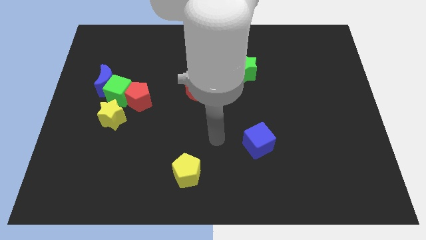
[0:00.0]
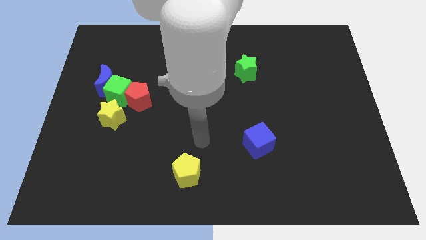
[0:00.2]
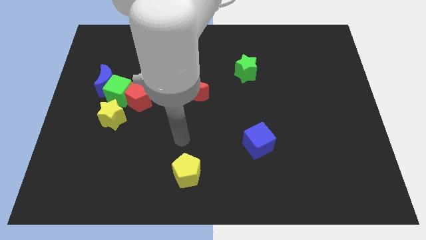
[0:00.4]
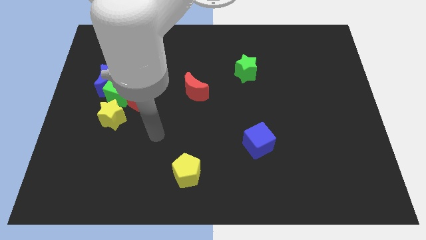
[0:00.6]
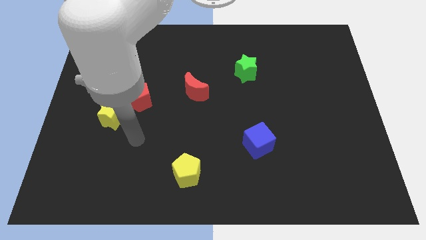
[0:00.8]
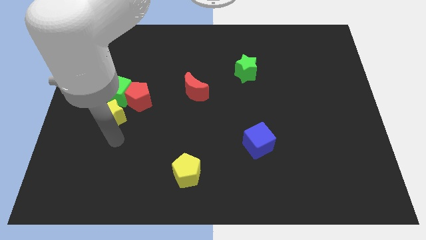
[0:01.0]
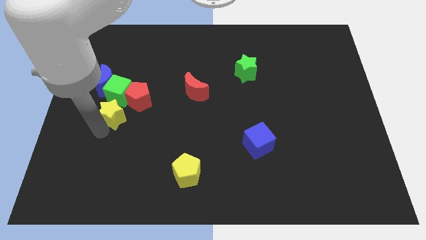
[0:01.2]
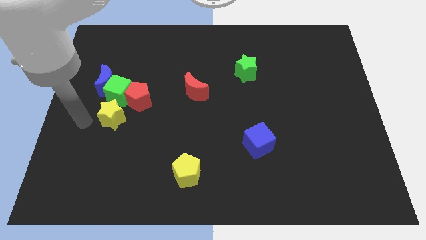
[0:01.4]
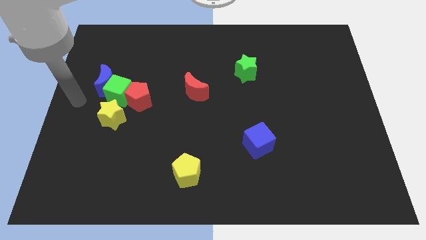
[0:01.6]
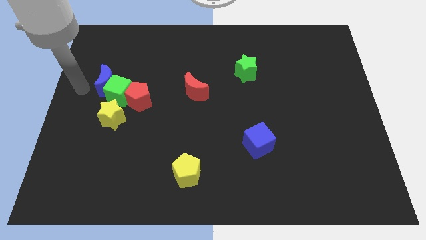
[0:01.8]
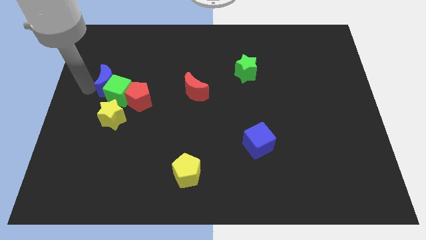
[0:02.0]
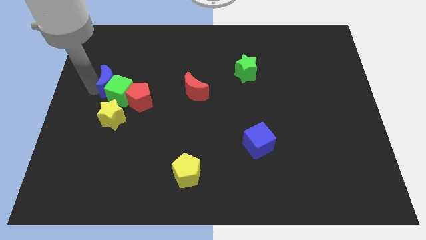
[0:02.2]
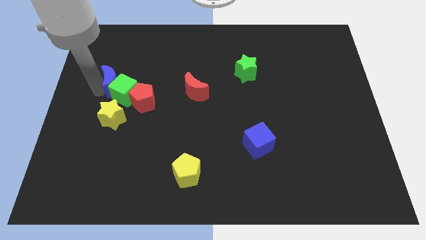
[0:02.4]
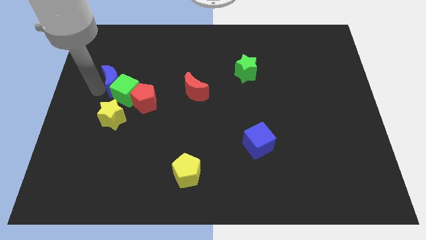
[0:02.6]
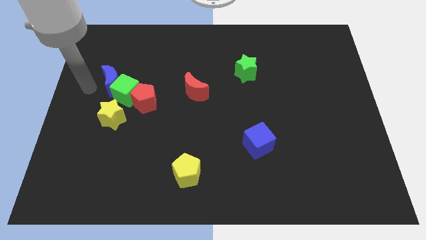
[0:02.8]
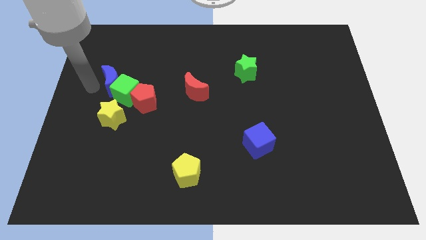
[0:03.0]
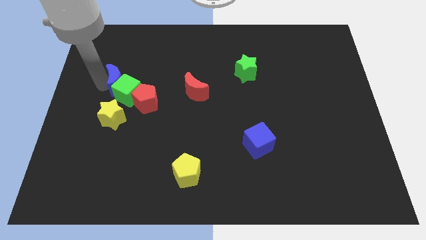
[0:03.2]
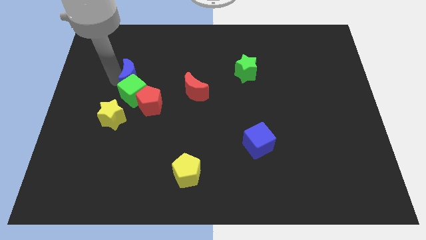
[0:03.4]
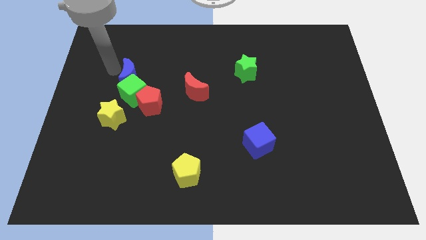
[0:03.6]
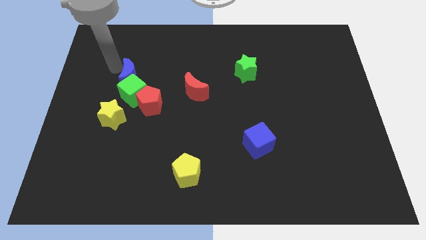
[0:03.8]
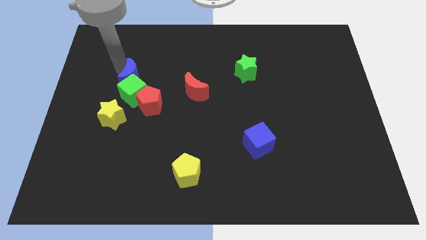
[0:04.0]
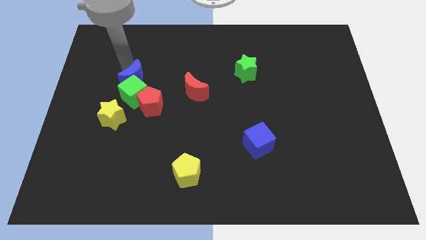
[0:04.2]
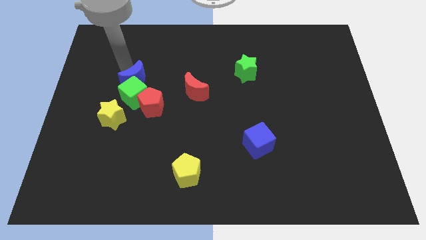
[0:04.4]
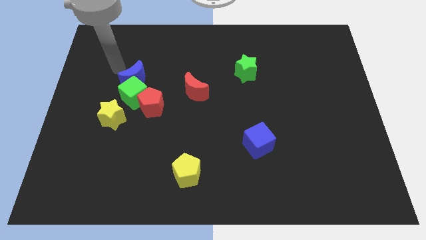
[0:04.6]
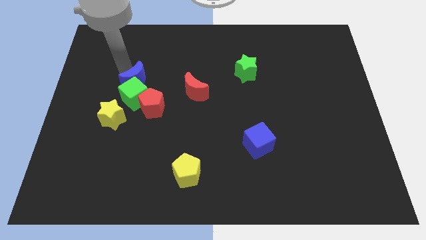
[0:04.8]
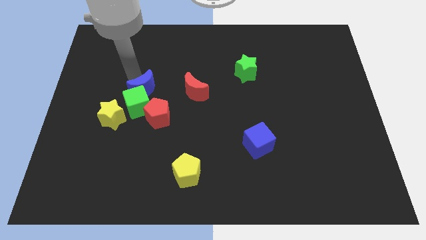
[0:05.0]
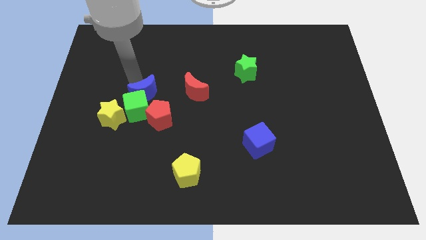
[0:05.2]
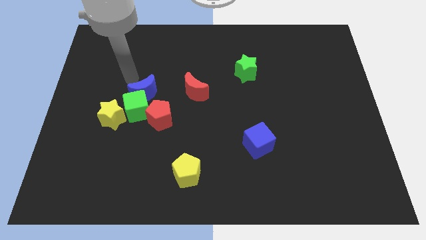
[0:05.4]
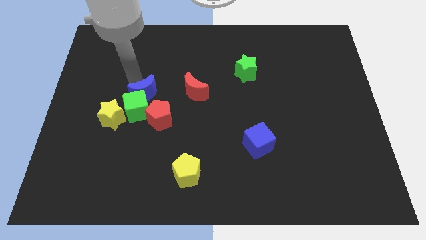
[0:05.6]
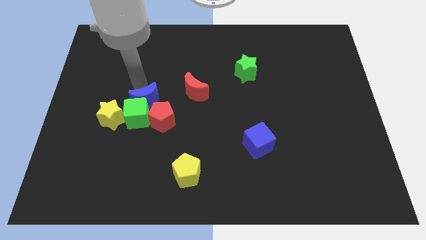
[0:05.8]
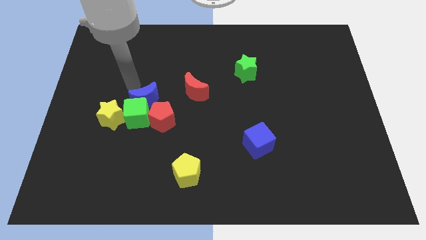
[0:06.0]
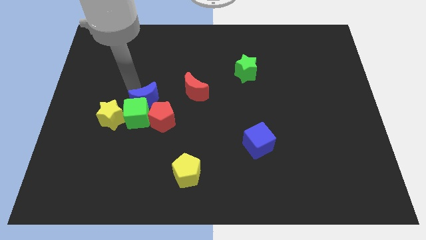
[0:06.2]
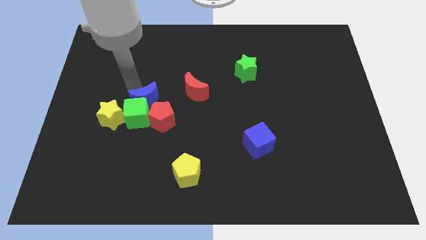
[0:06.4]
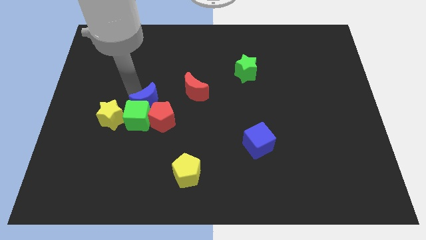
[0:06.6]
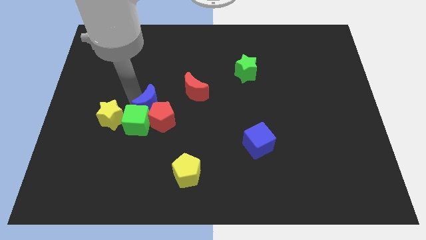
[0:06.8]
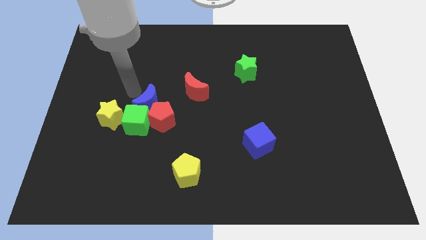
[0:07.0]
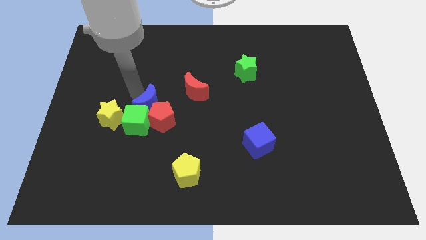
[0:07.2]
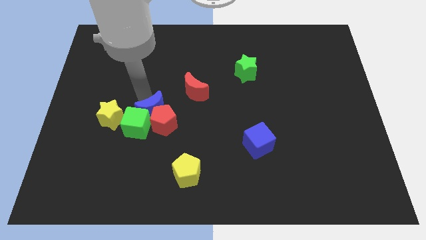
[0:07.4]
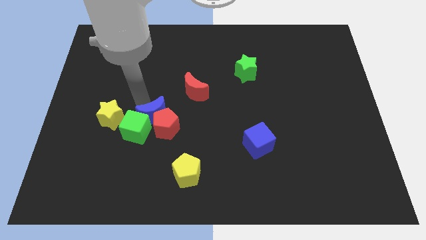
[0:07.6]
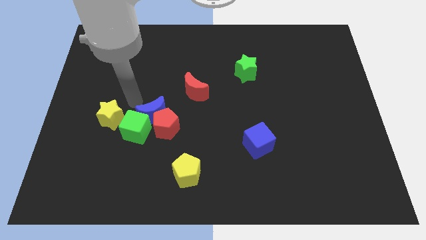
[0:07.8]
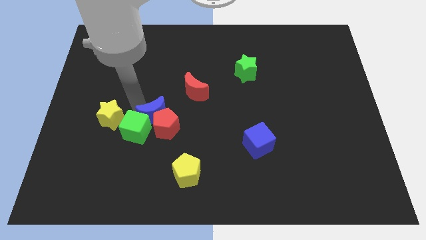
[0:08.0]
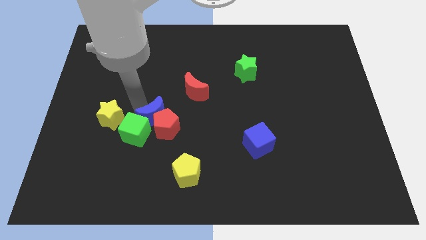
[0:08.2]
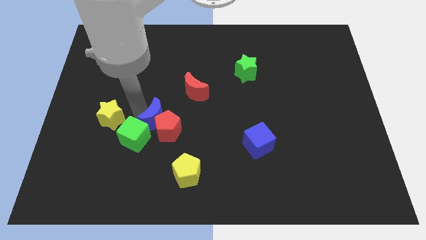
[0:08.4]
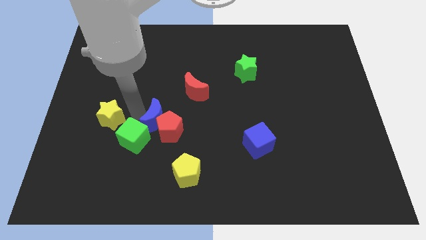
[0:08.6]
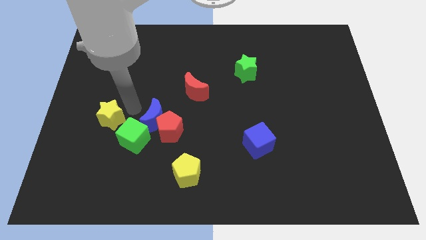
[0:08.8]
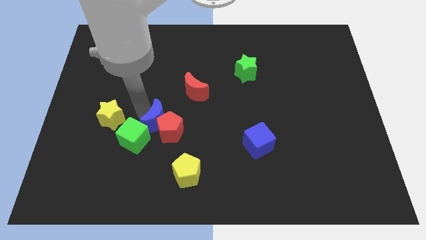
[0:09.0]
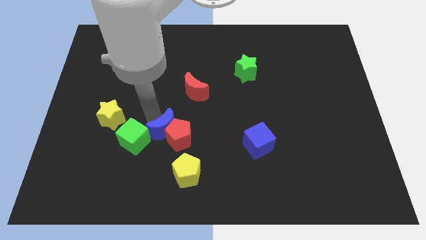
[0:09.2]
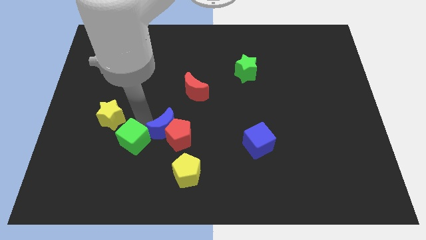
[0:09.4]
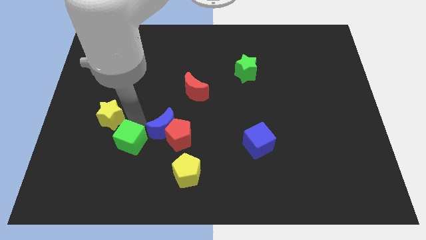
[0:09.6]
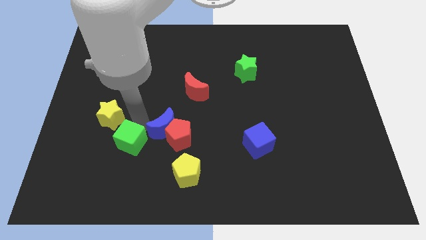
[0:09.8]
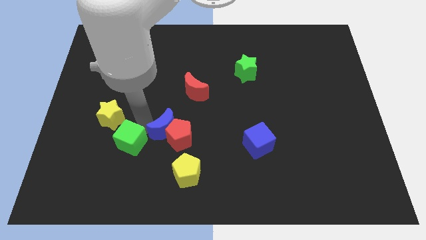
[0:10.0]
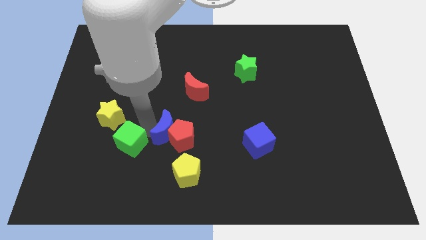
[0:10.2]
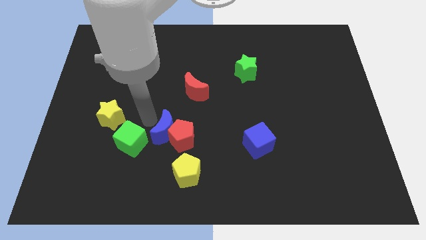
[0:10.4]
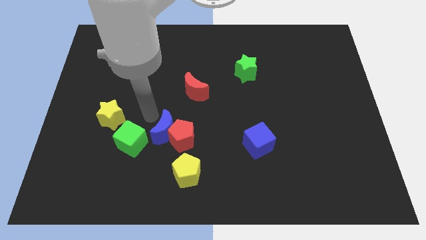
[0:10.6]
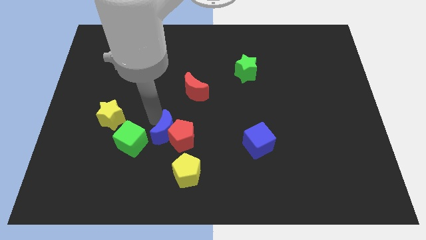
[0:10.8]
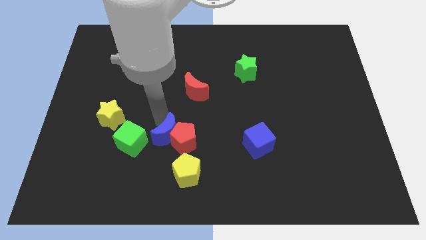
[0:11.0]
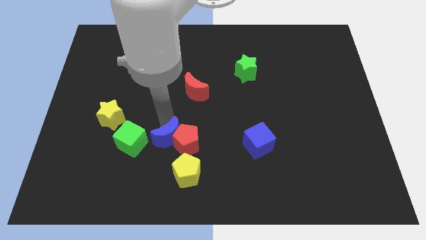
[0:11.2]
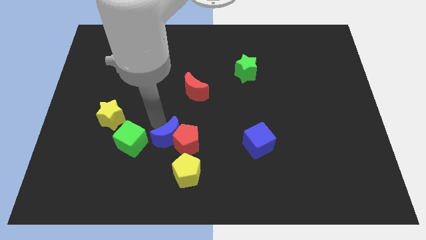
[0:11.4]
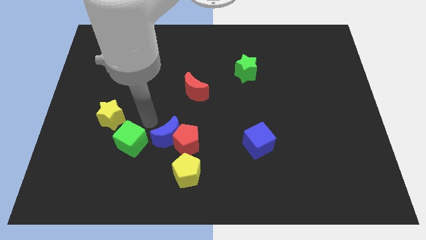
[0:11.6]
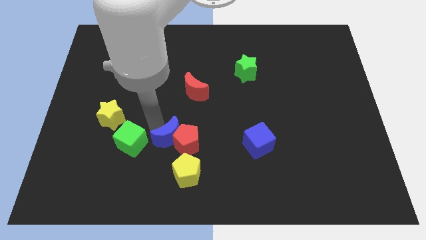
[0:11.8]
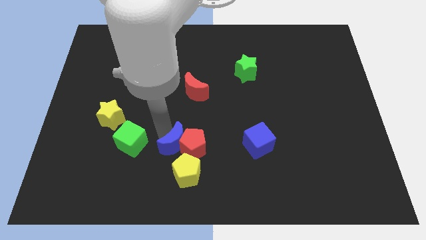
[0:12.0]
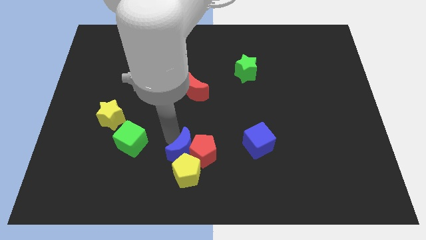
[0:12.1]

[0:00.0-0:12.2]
push the blue moon next to the yellow pentagon
